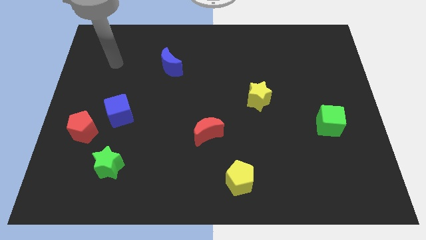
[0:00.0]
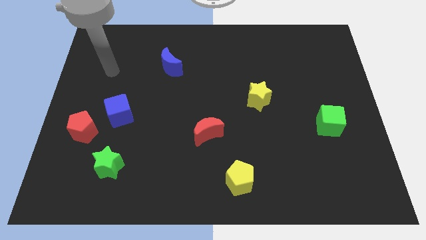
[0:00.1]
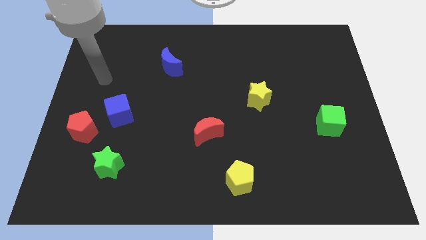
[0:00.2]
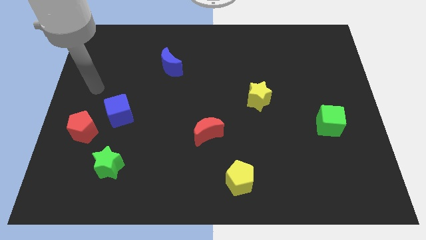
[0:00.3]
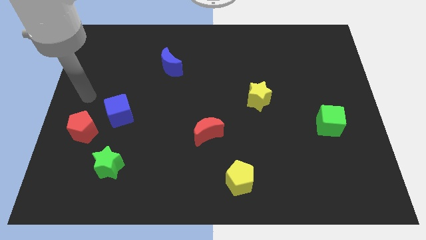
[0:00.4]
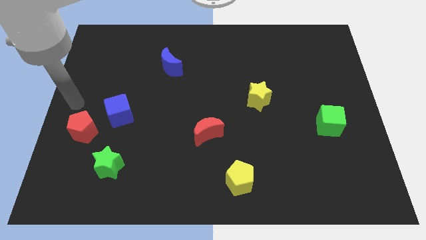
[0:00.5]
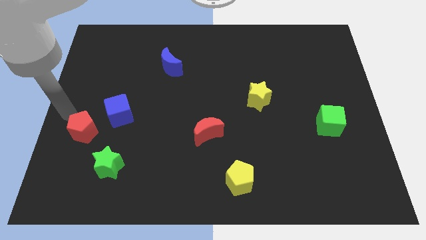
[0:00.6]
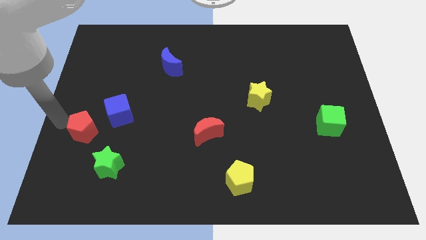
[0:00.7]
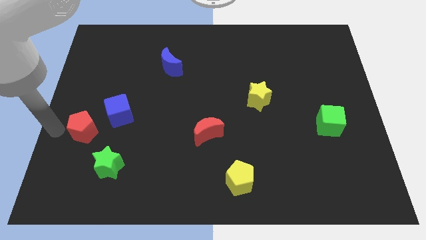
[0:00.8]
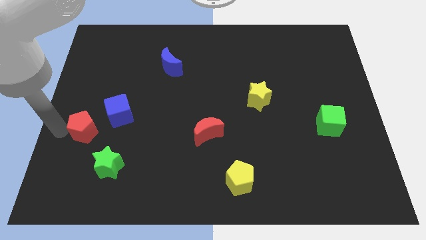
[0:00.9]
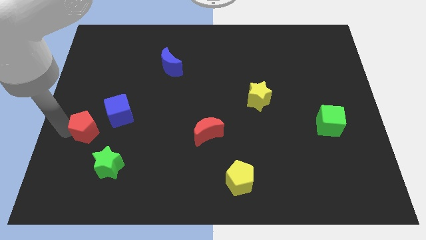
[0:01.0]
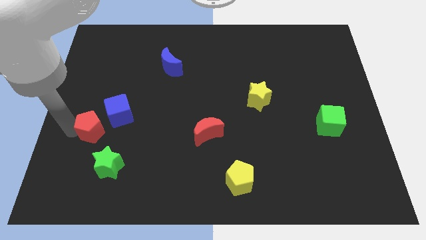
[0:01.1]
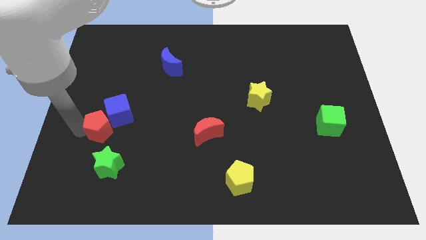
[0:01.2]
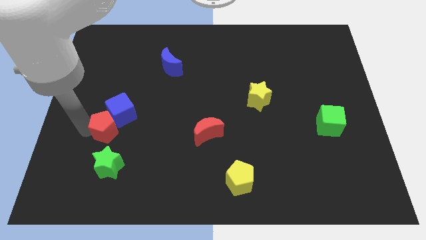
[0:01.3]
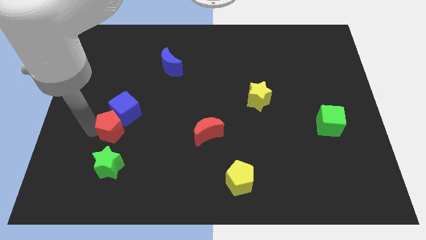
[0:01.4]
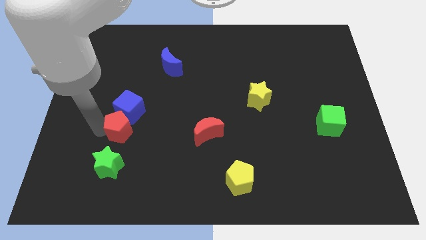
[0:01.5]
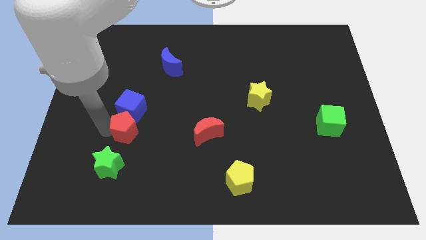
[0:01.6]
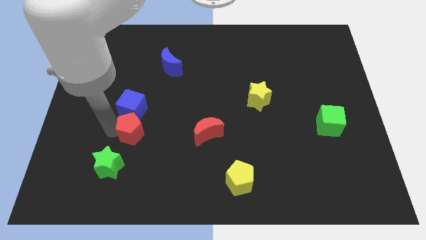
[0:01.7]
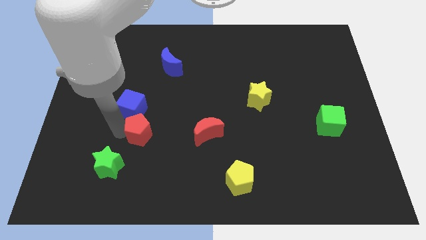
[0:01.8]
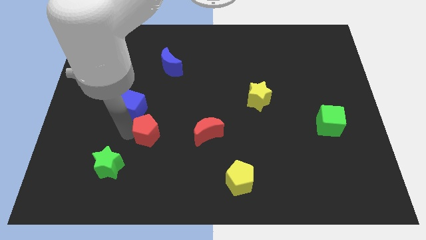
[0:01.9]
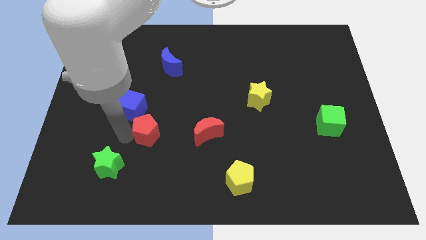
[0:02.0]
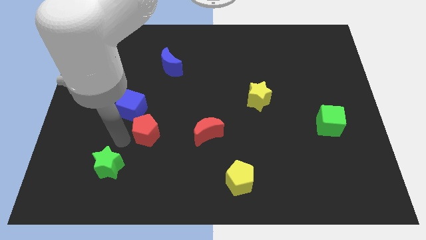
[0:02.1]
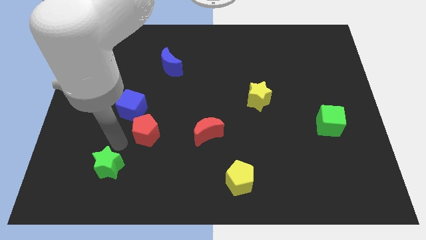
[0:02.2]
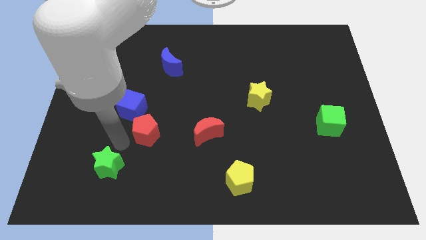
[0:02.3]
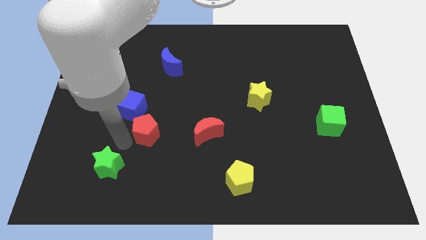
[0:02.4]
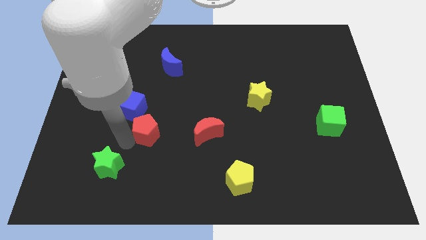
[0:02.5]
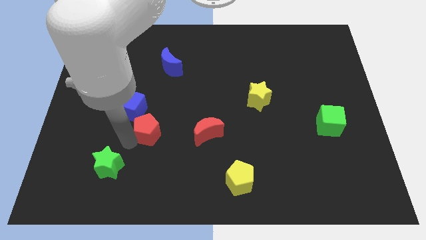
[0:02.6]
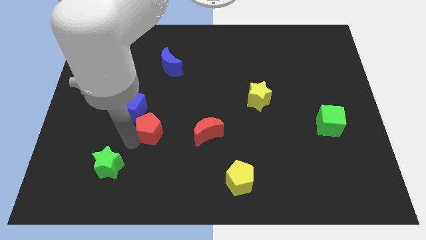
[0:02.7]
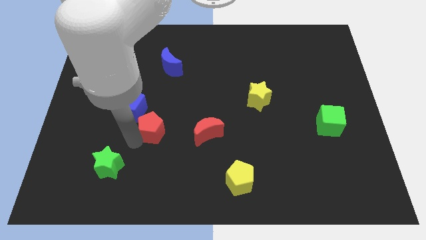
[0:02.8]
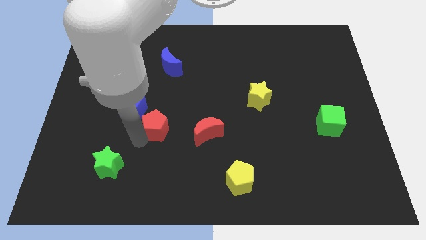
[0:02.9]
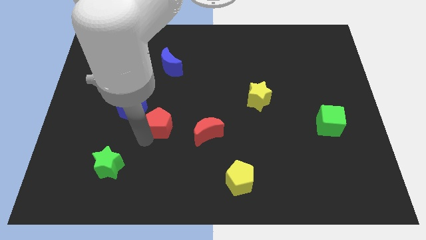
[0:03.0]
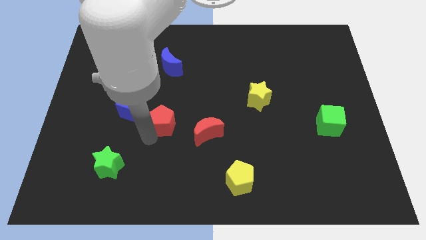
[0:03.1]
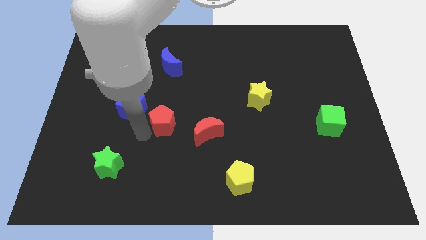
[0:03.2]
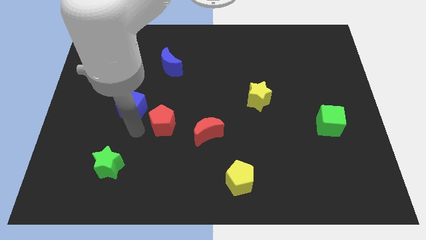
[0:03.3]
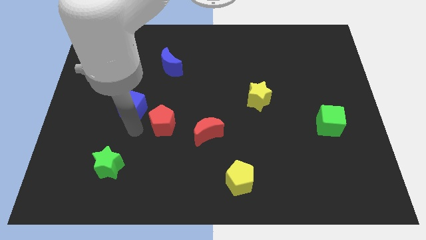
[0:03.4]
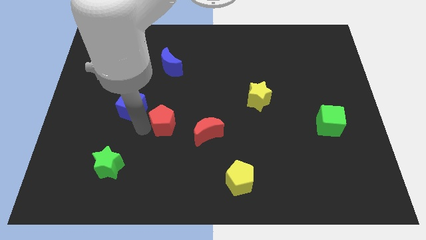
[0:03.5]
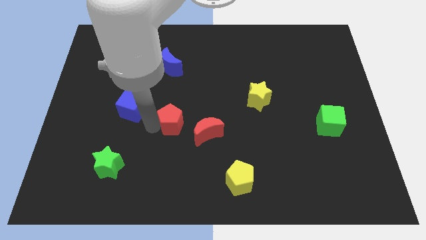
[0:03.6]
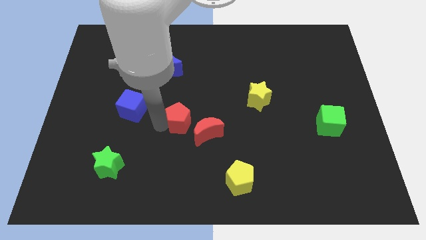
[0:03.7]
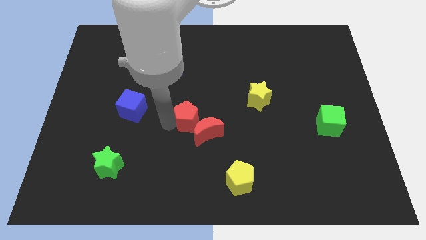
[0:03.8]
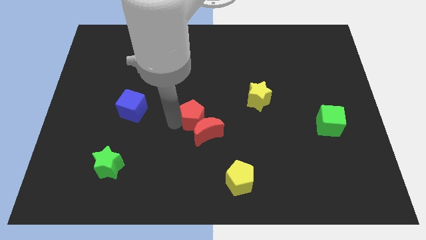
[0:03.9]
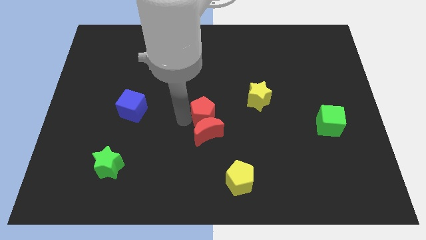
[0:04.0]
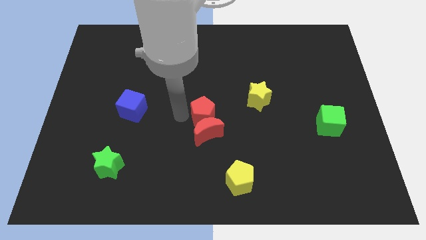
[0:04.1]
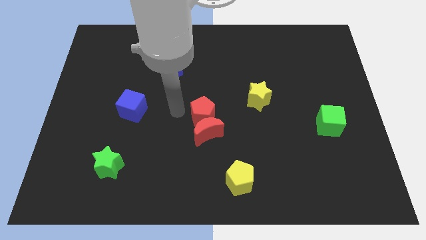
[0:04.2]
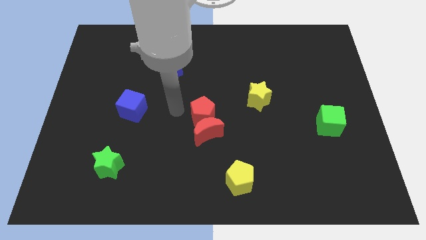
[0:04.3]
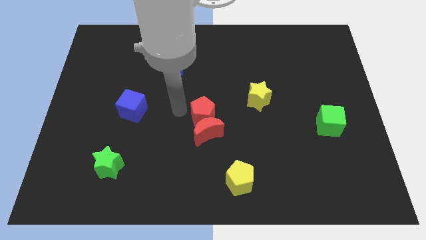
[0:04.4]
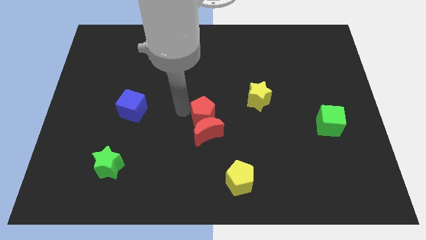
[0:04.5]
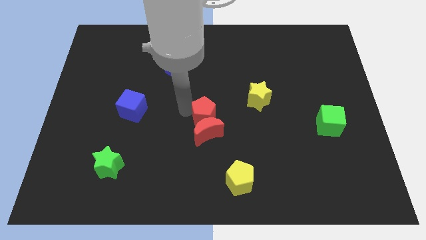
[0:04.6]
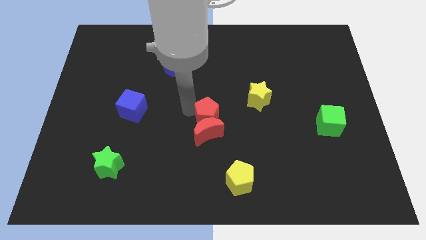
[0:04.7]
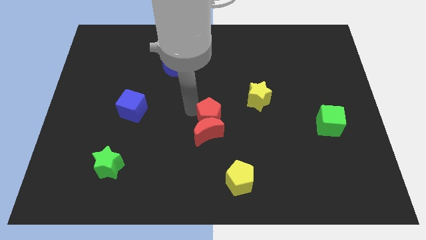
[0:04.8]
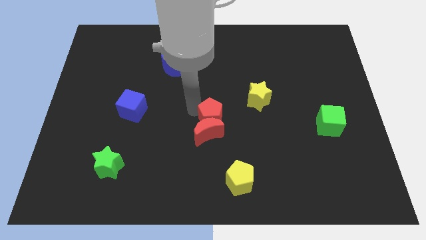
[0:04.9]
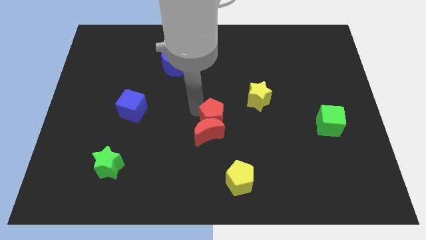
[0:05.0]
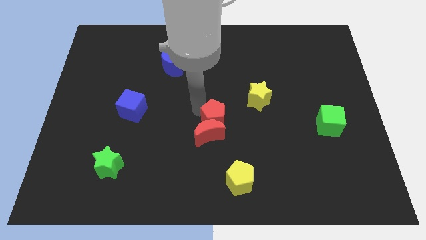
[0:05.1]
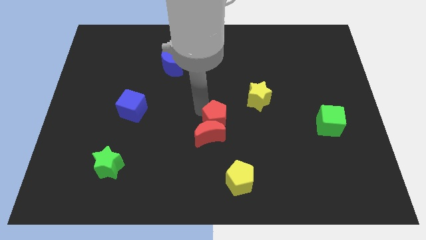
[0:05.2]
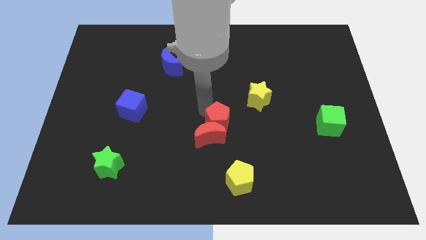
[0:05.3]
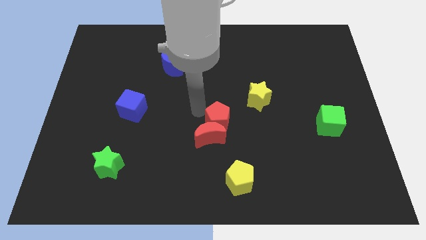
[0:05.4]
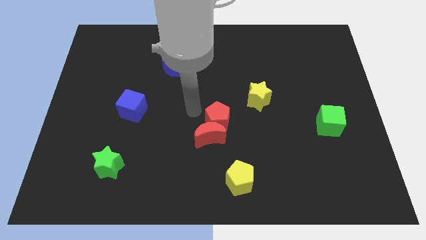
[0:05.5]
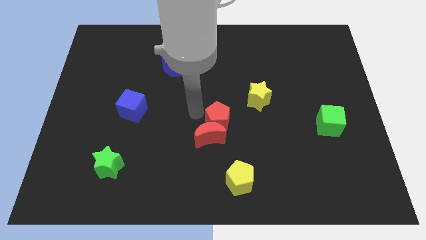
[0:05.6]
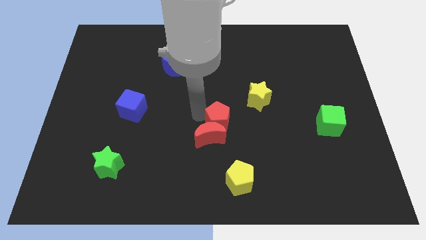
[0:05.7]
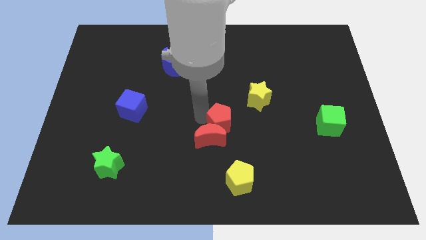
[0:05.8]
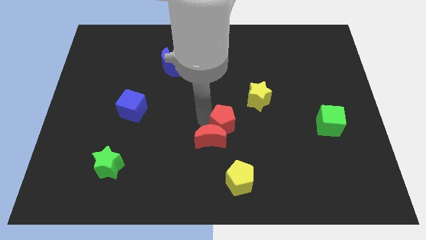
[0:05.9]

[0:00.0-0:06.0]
move the red pentagon right of the red moon

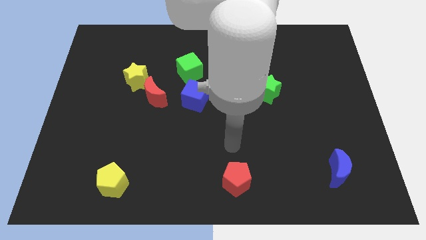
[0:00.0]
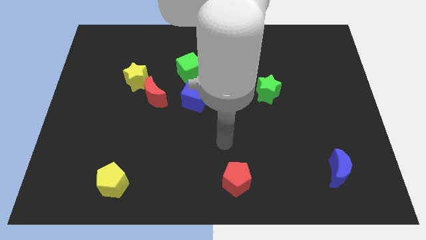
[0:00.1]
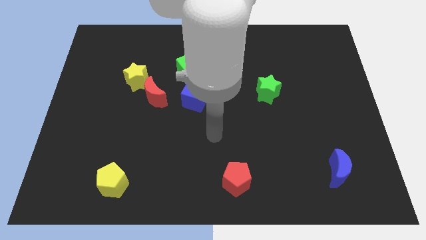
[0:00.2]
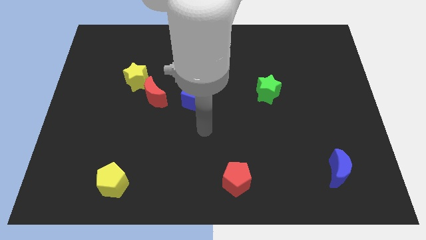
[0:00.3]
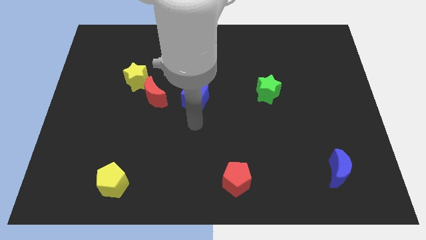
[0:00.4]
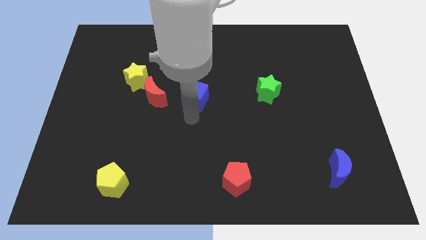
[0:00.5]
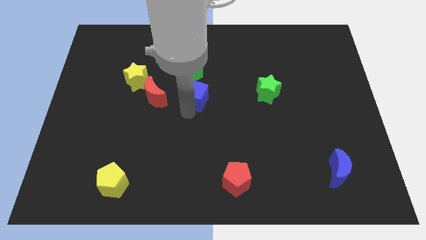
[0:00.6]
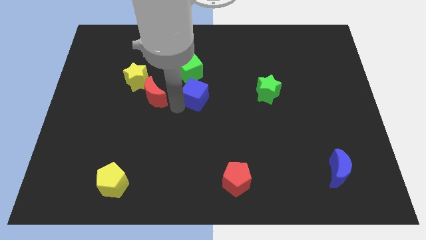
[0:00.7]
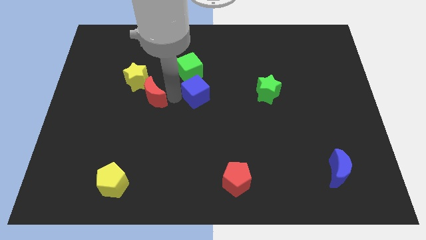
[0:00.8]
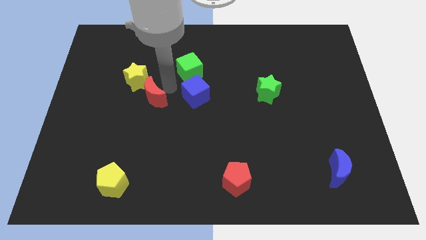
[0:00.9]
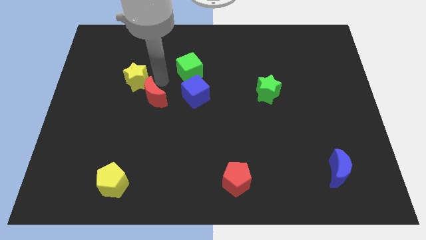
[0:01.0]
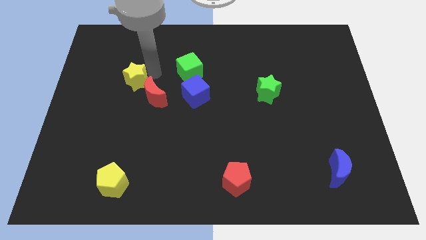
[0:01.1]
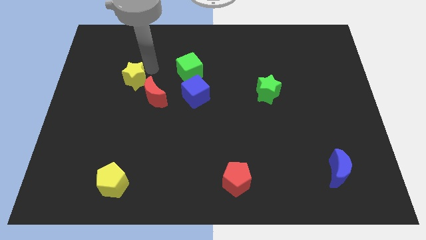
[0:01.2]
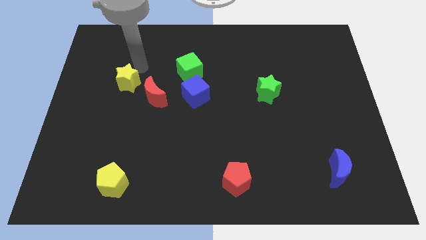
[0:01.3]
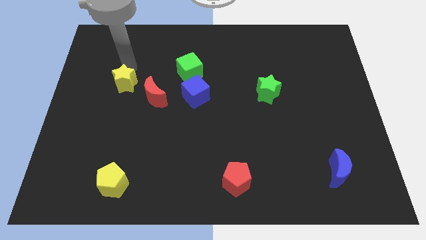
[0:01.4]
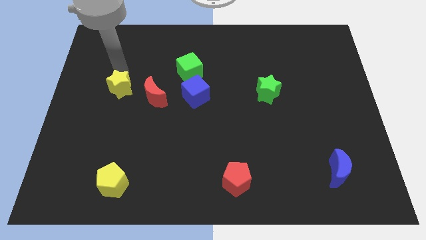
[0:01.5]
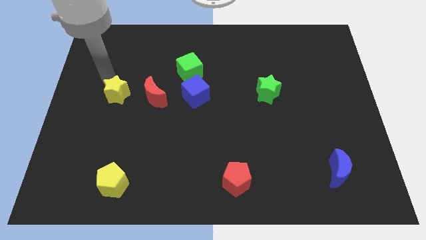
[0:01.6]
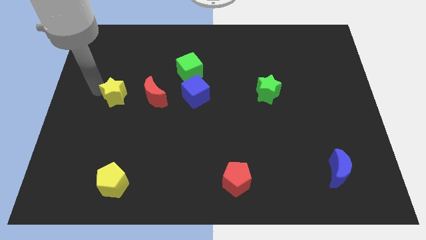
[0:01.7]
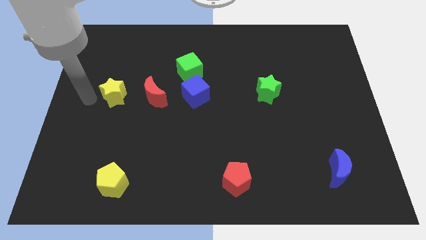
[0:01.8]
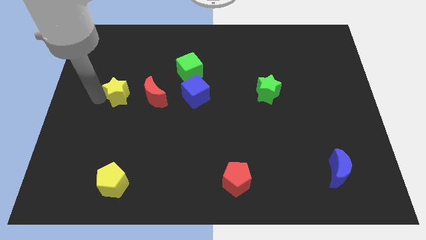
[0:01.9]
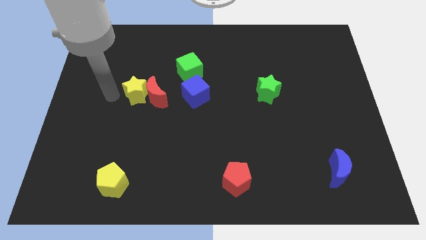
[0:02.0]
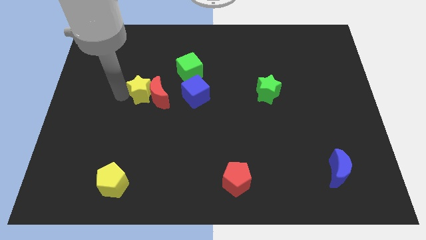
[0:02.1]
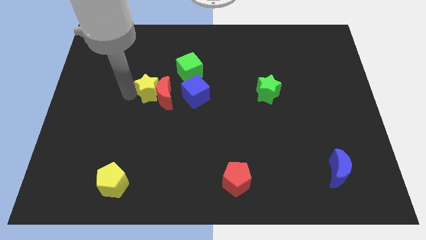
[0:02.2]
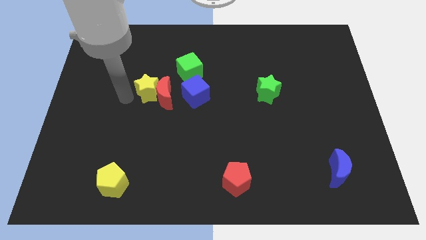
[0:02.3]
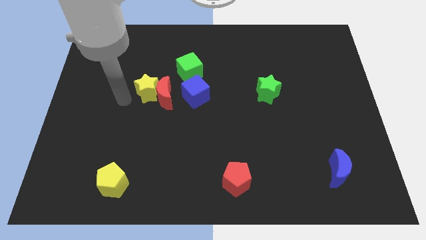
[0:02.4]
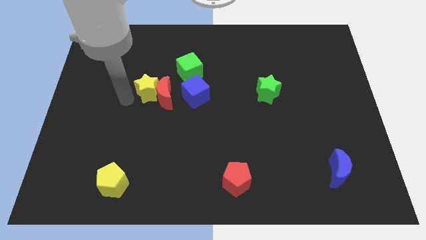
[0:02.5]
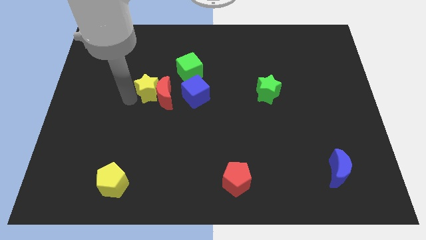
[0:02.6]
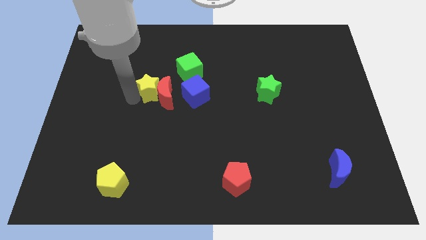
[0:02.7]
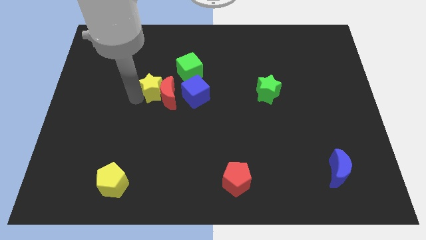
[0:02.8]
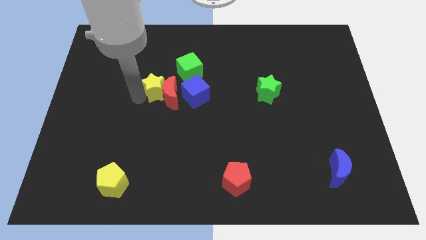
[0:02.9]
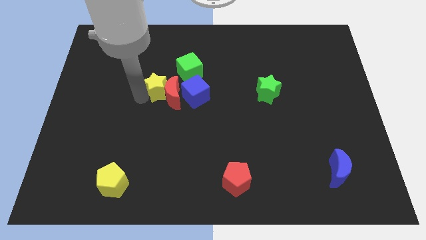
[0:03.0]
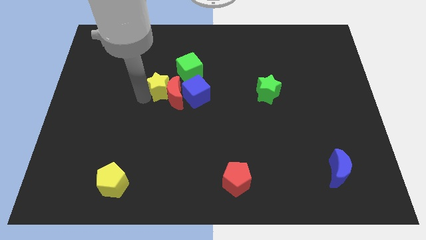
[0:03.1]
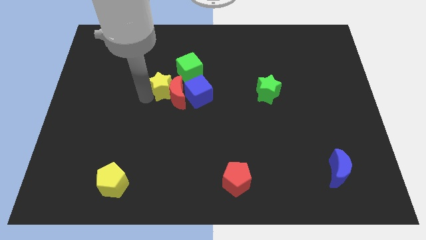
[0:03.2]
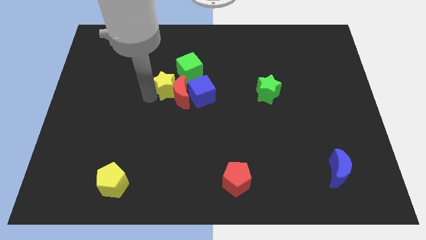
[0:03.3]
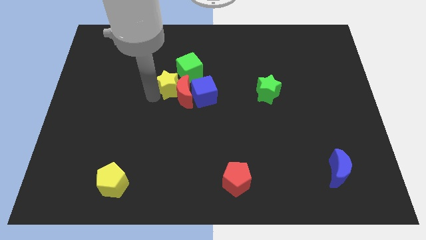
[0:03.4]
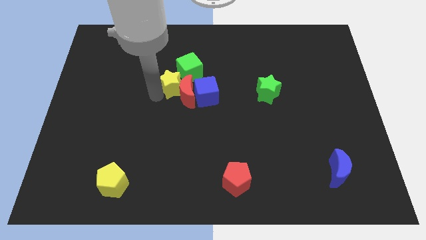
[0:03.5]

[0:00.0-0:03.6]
slide the yellow star to the bottom side of the green cube
